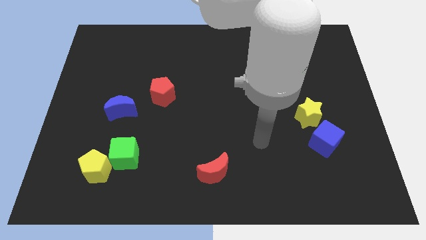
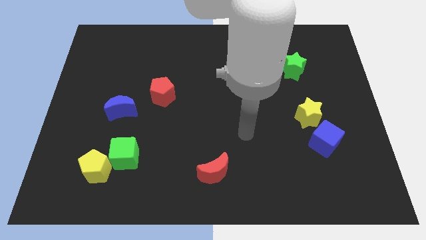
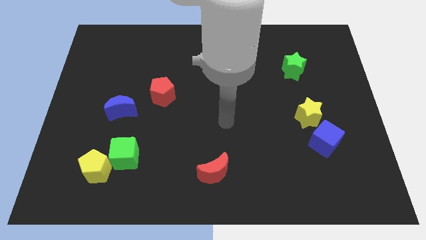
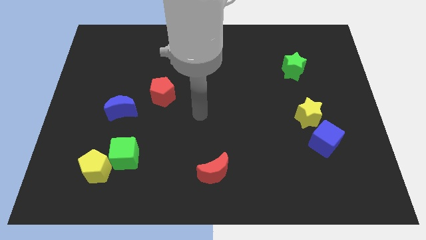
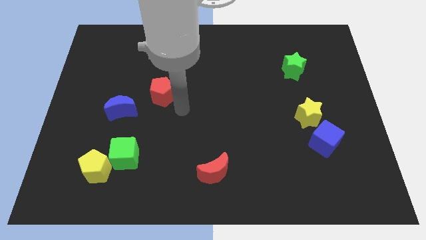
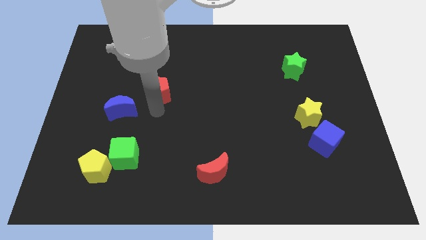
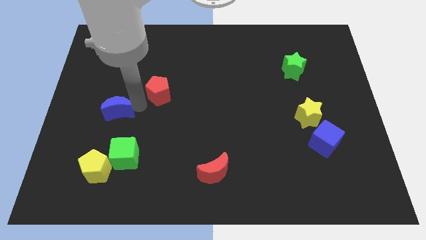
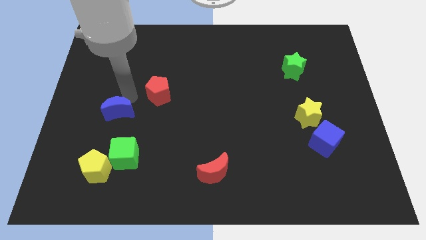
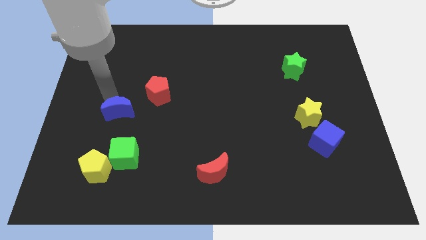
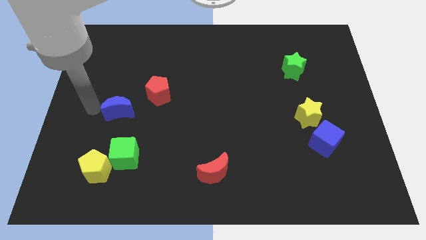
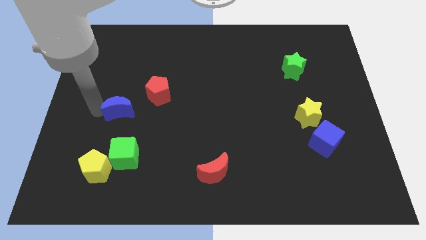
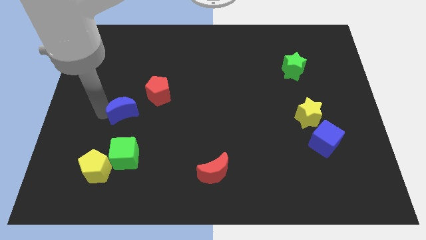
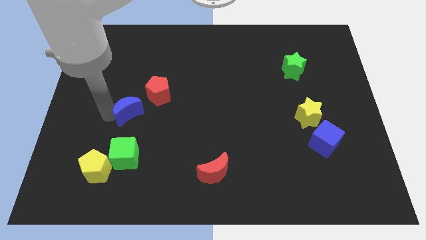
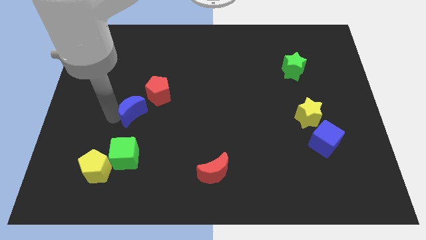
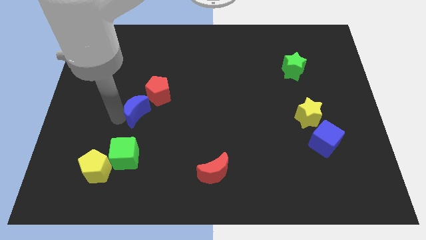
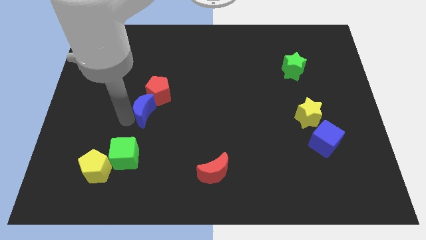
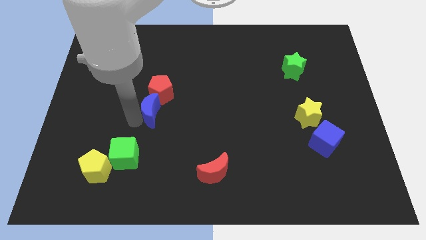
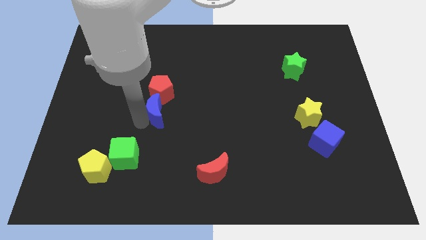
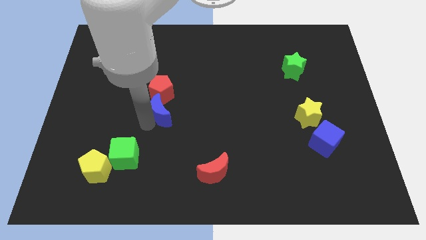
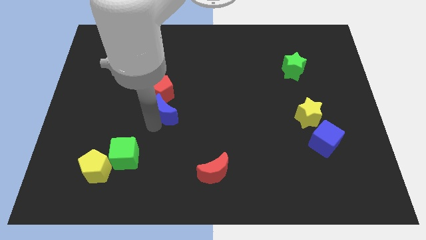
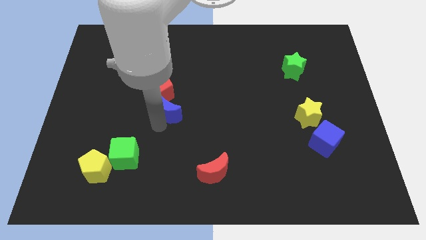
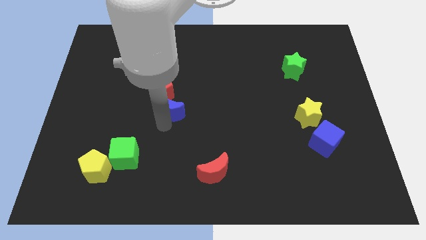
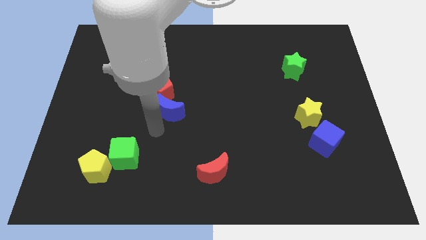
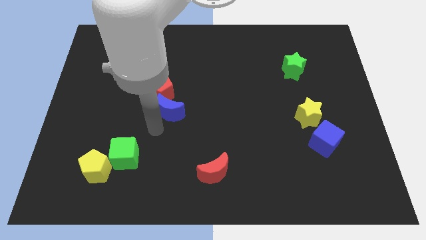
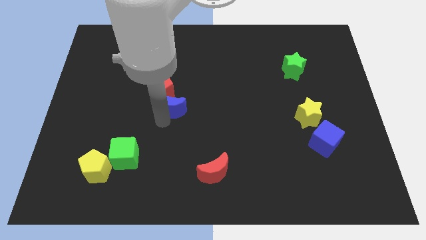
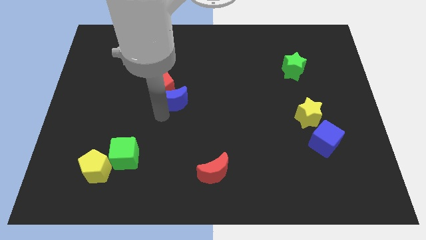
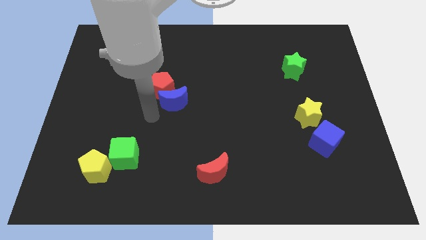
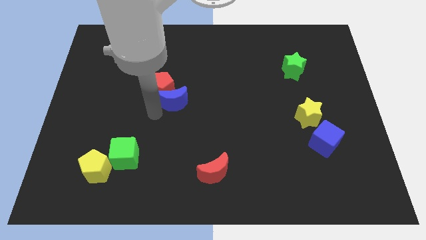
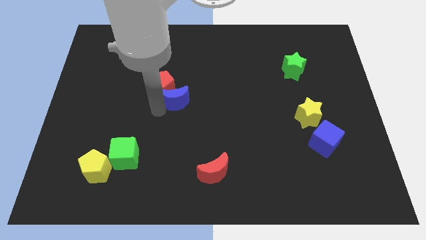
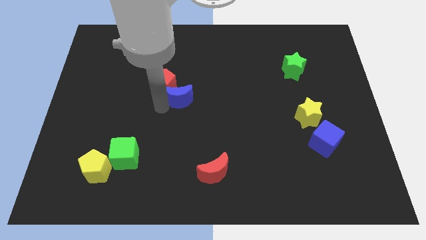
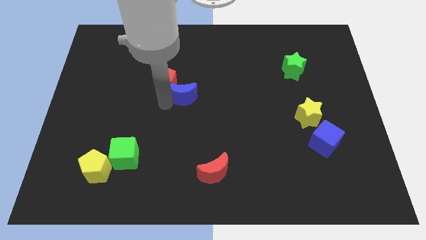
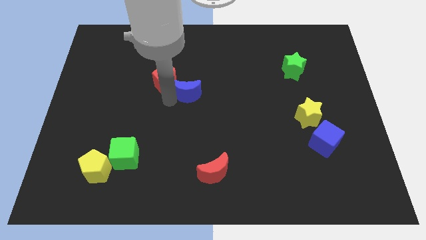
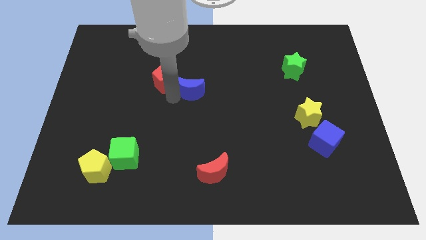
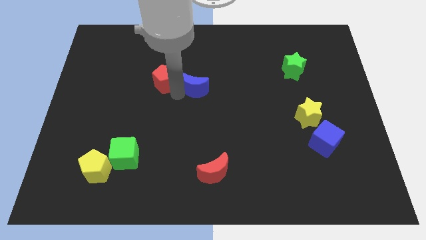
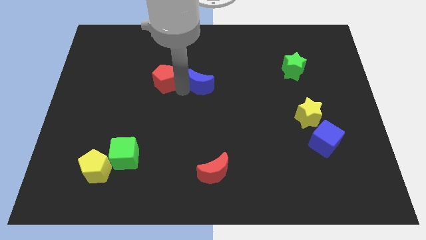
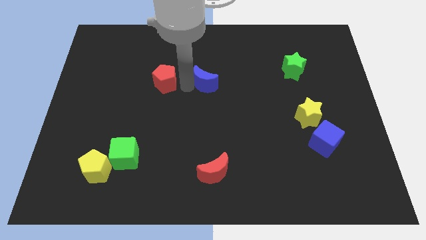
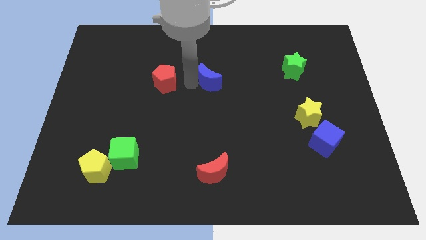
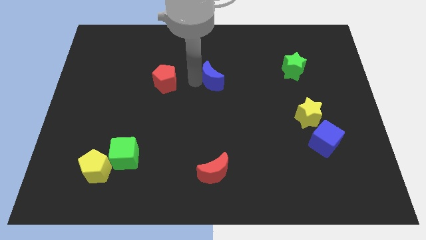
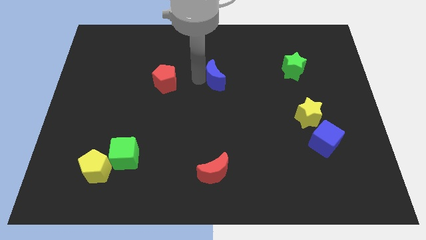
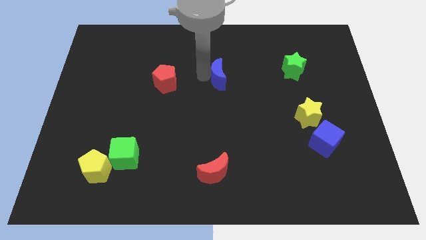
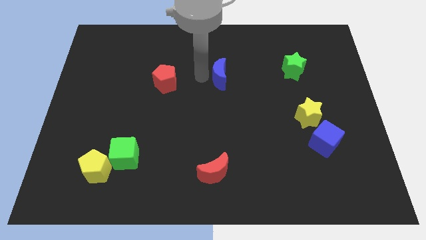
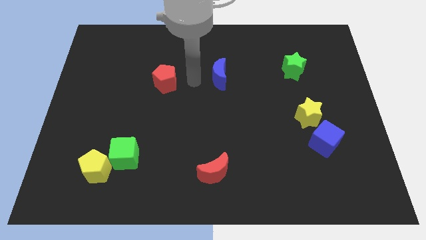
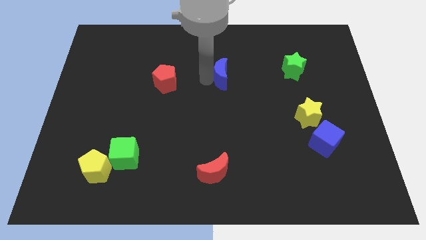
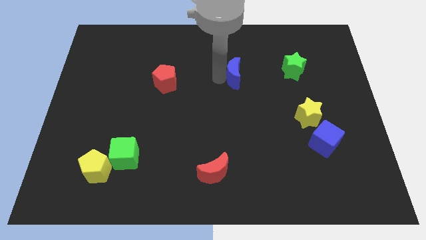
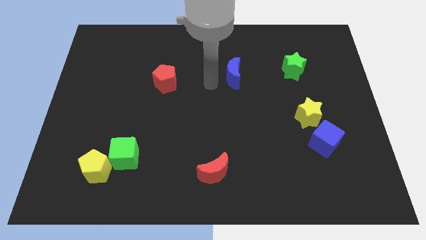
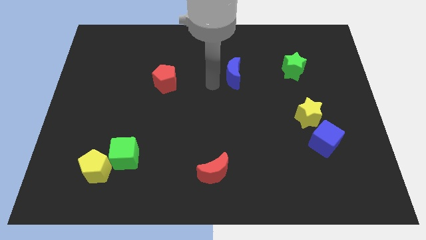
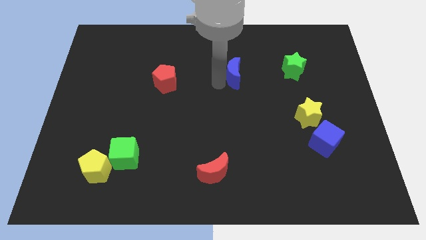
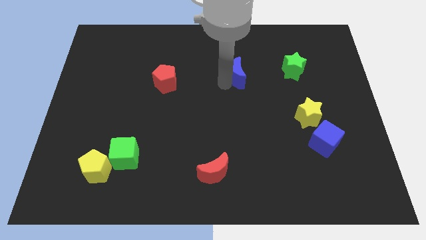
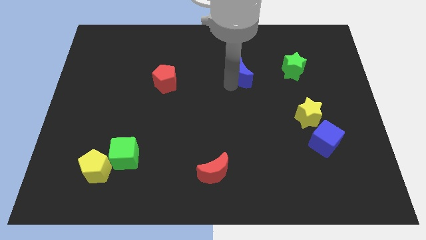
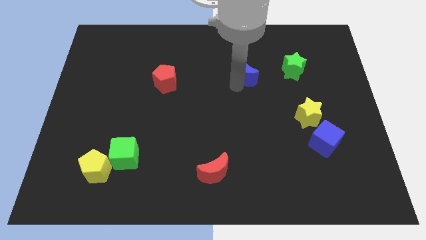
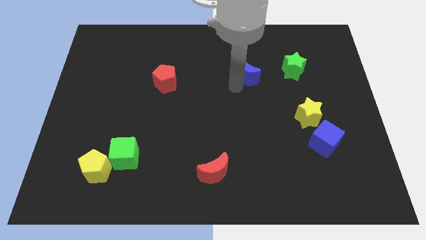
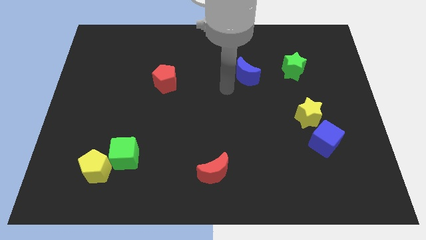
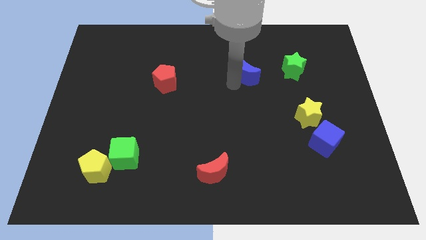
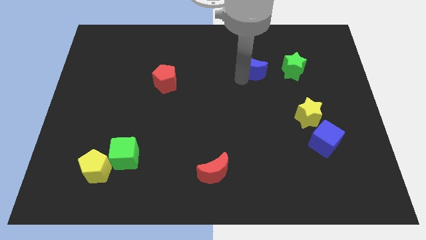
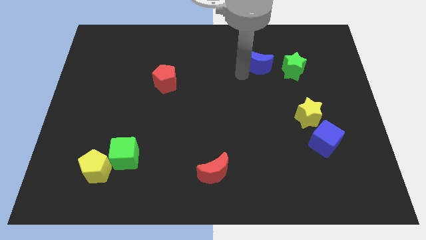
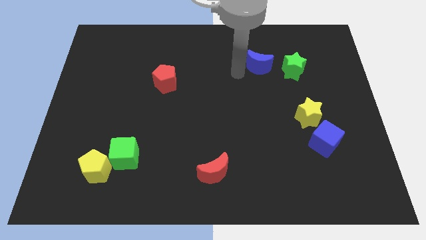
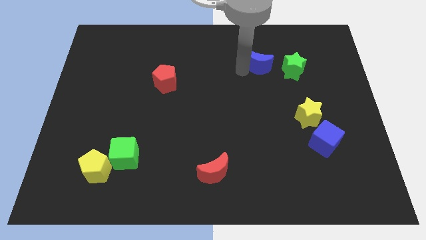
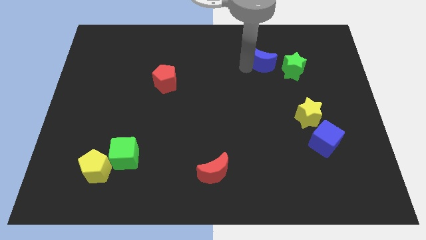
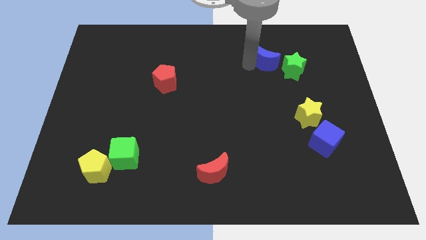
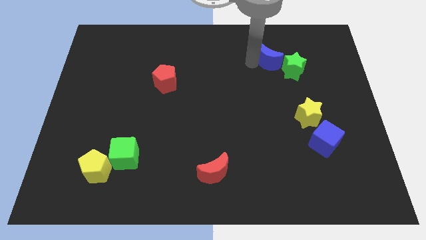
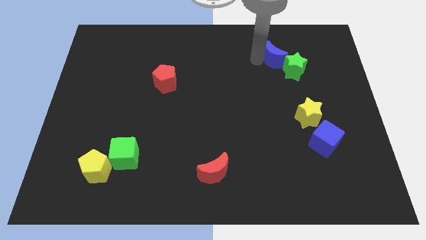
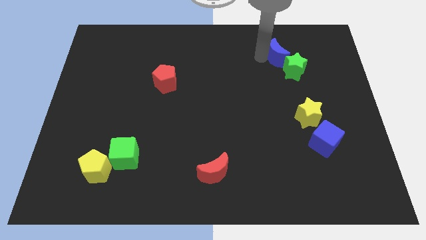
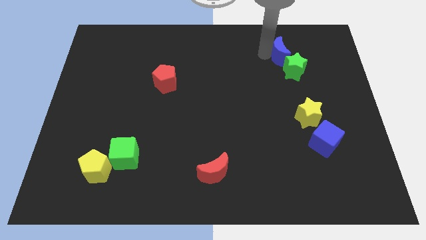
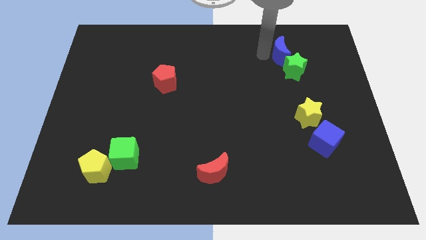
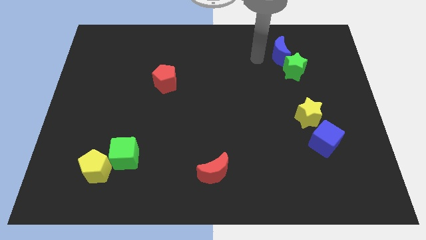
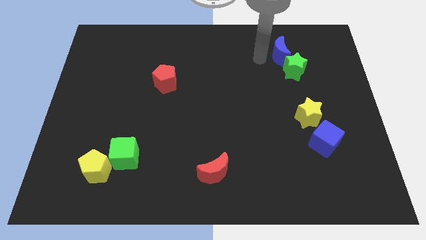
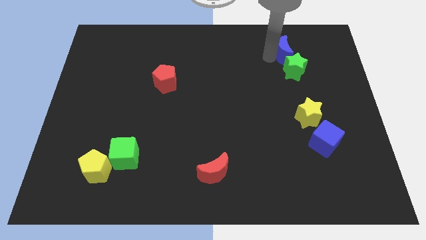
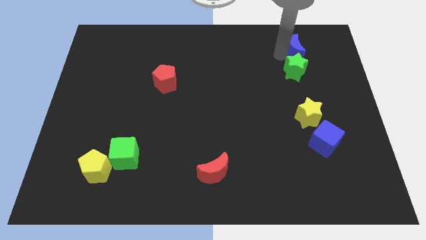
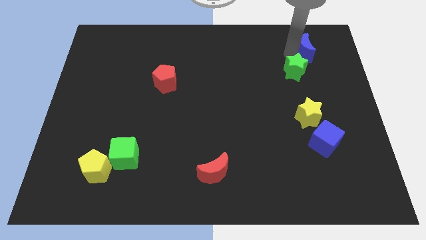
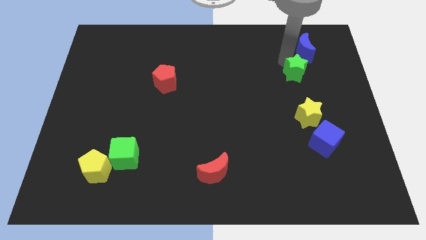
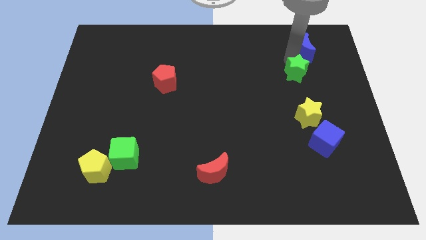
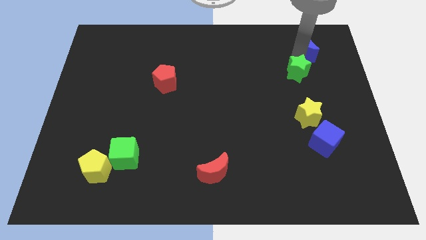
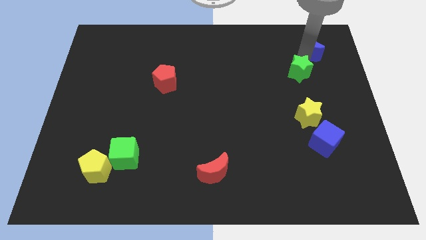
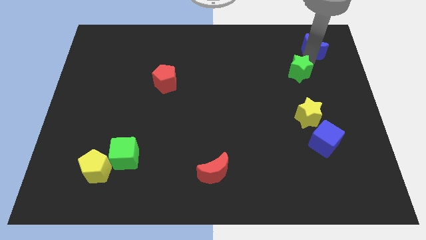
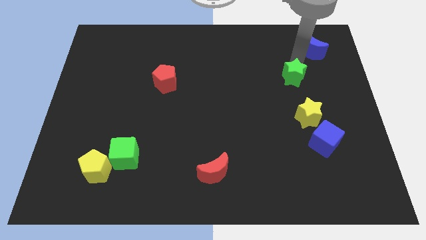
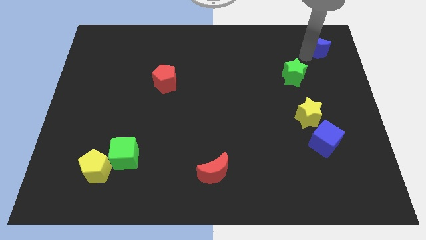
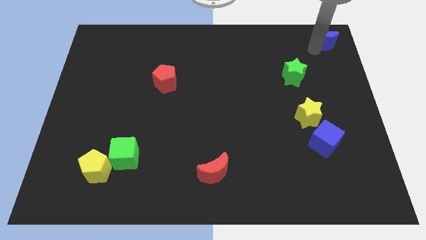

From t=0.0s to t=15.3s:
put the blue moon to the top right corner
